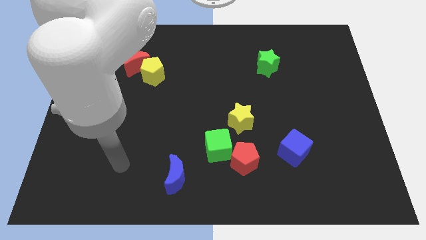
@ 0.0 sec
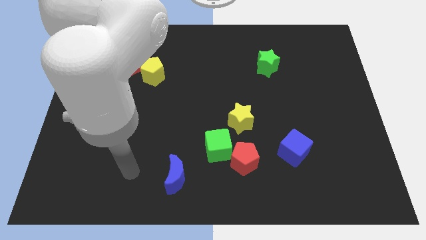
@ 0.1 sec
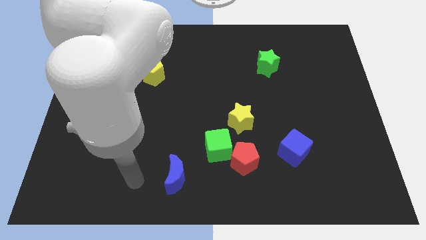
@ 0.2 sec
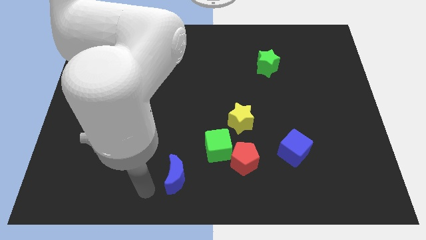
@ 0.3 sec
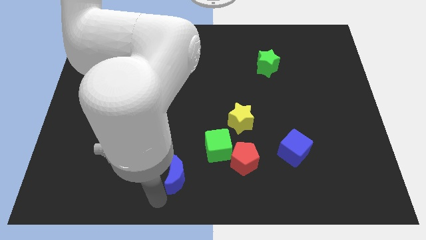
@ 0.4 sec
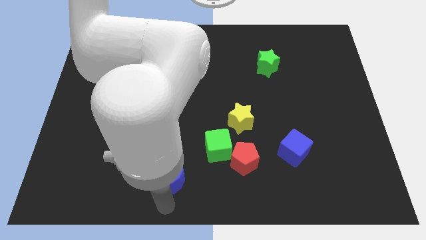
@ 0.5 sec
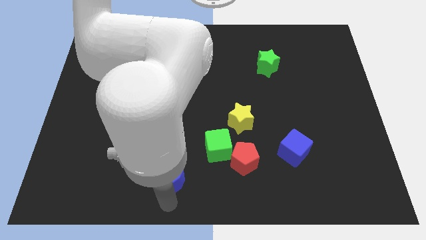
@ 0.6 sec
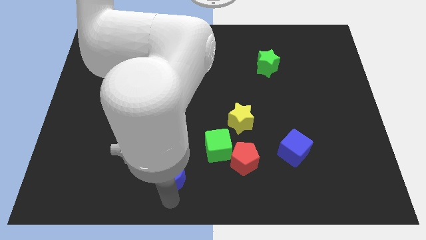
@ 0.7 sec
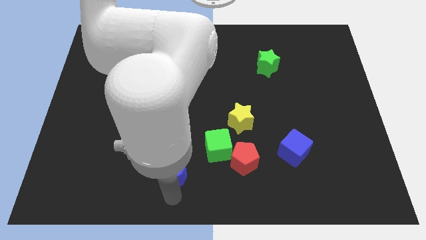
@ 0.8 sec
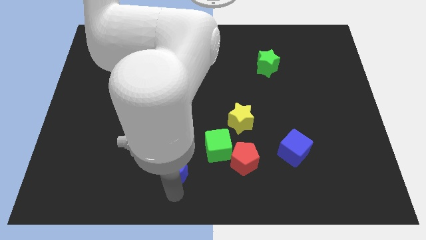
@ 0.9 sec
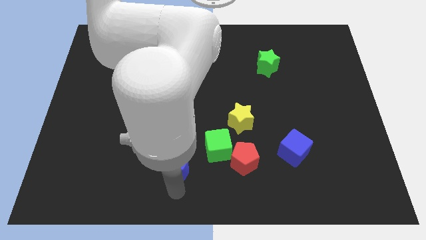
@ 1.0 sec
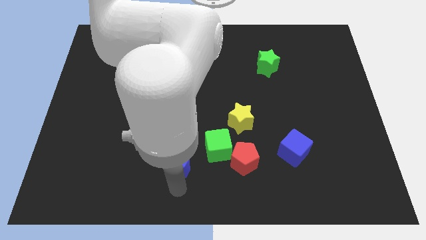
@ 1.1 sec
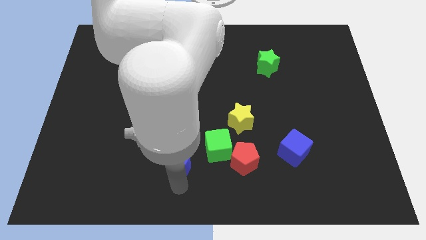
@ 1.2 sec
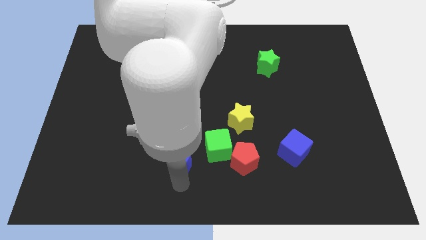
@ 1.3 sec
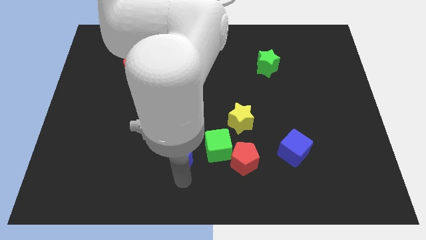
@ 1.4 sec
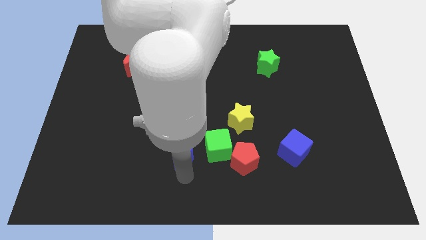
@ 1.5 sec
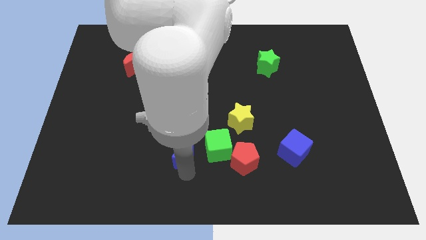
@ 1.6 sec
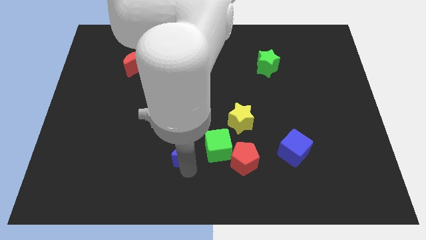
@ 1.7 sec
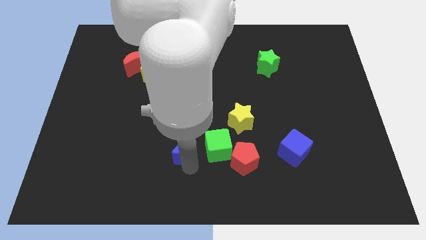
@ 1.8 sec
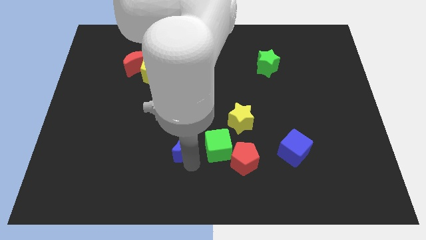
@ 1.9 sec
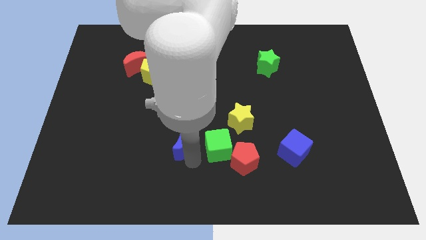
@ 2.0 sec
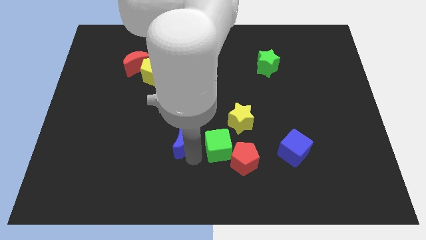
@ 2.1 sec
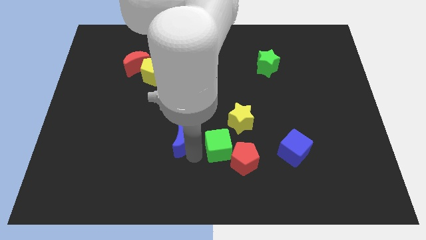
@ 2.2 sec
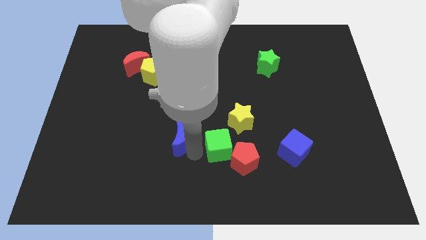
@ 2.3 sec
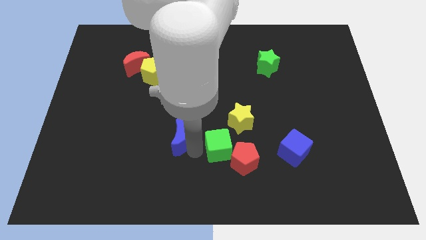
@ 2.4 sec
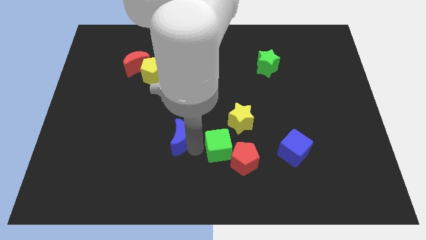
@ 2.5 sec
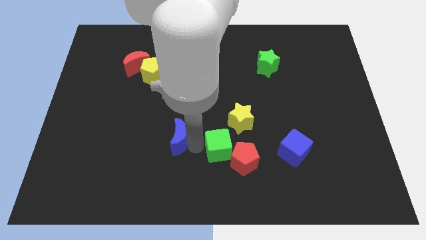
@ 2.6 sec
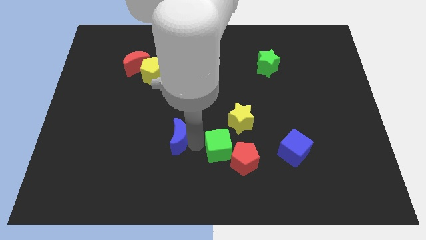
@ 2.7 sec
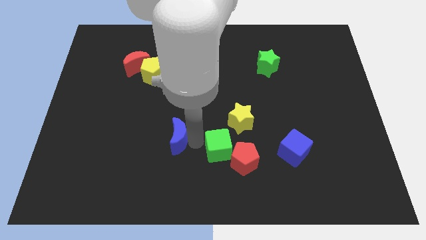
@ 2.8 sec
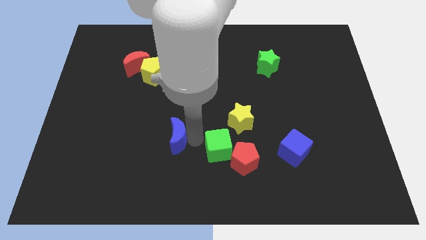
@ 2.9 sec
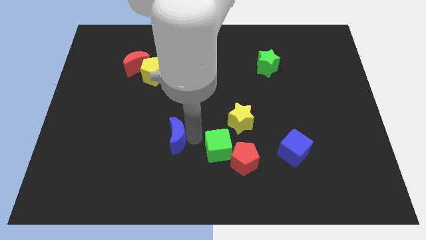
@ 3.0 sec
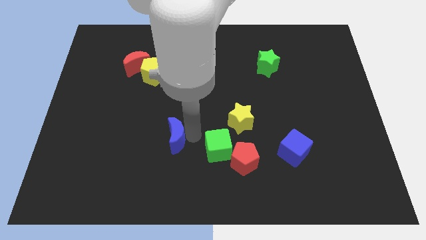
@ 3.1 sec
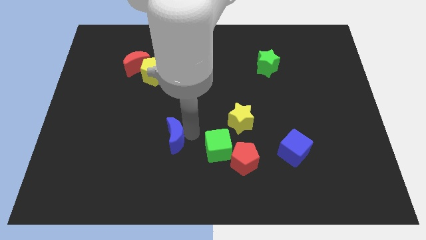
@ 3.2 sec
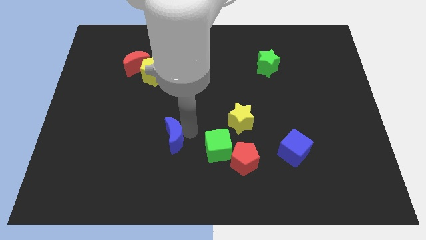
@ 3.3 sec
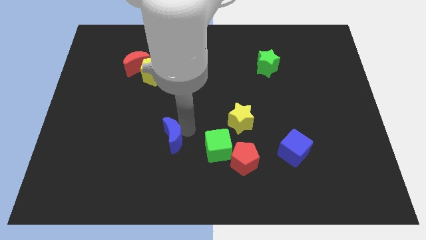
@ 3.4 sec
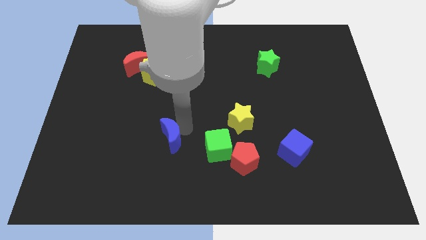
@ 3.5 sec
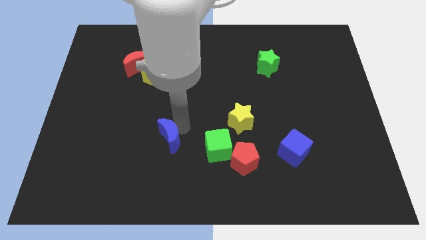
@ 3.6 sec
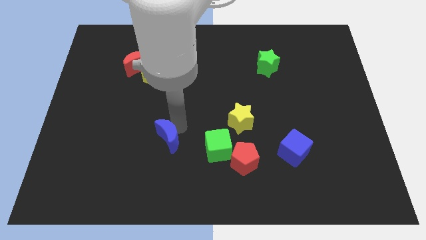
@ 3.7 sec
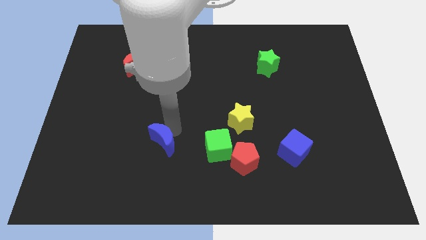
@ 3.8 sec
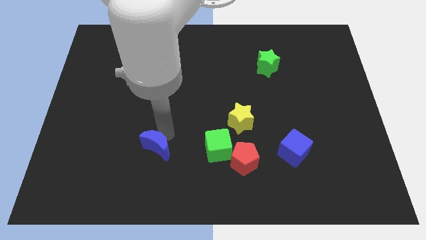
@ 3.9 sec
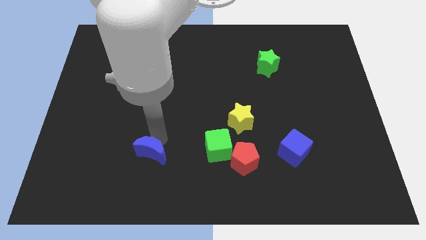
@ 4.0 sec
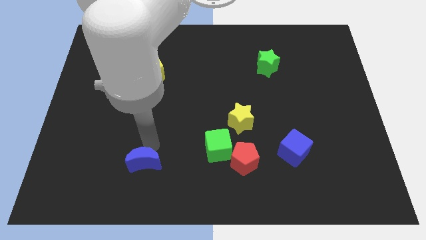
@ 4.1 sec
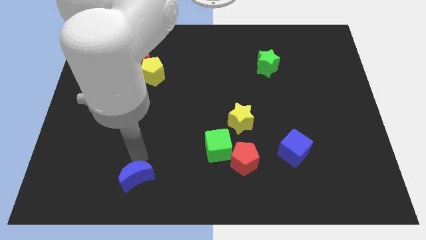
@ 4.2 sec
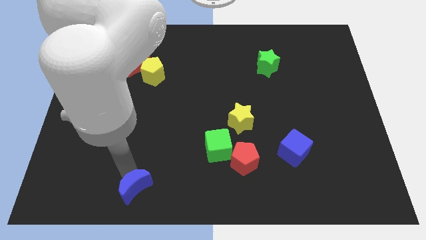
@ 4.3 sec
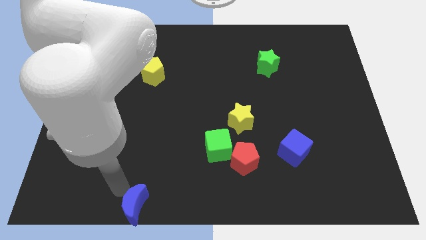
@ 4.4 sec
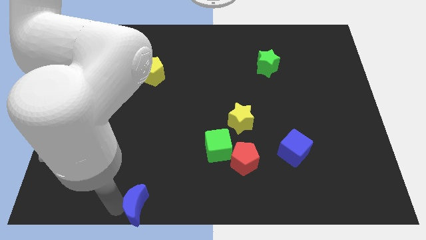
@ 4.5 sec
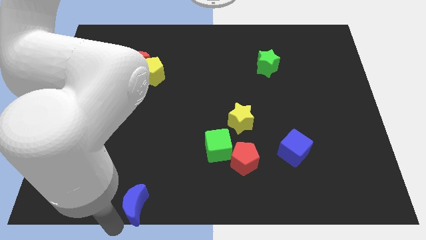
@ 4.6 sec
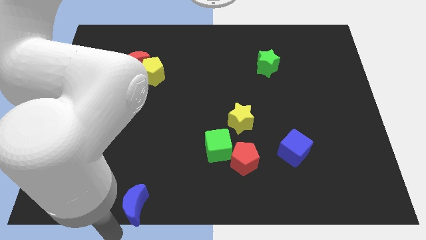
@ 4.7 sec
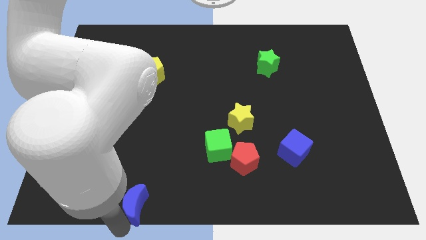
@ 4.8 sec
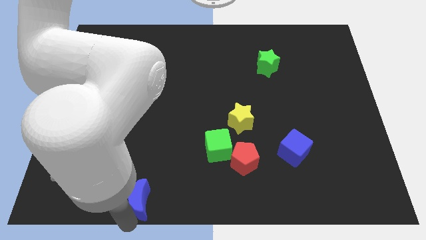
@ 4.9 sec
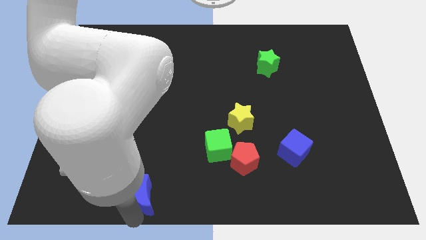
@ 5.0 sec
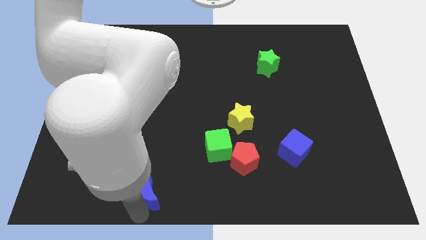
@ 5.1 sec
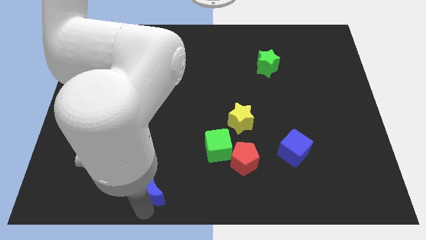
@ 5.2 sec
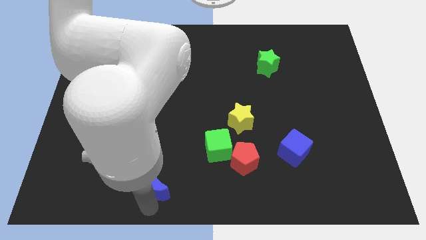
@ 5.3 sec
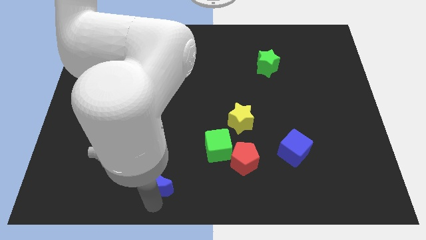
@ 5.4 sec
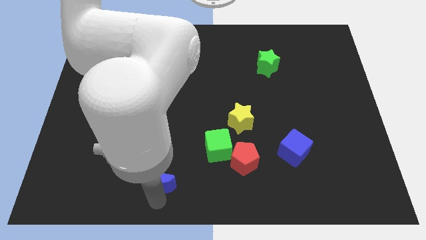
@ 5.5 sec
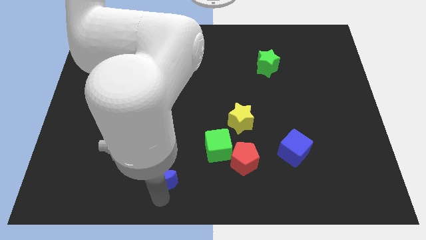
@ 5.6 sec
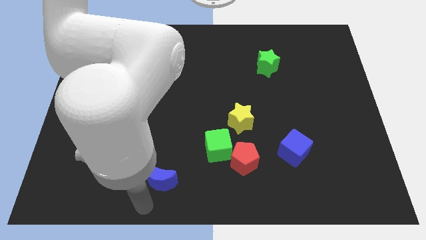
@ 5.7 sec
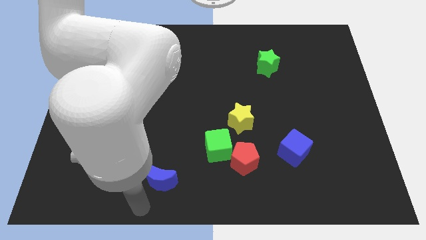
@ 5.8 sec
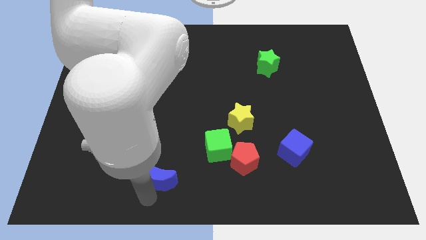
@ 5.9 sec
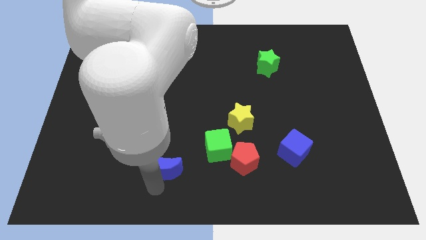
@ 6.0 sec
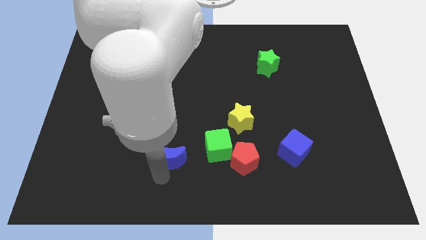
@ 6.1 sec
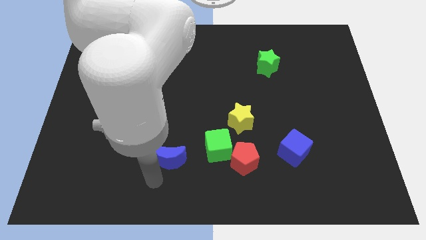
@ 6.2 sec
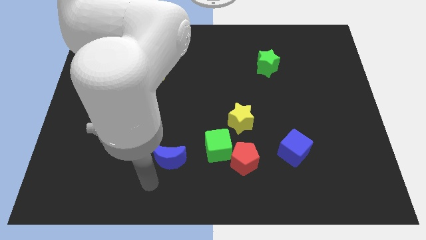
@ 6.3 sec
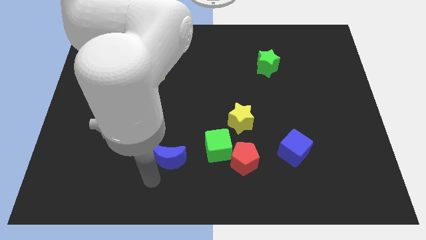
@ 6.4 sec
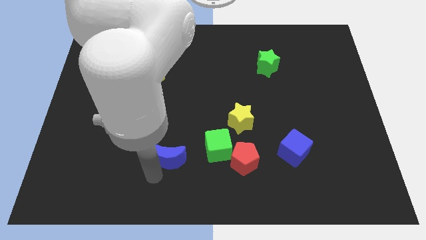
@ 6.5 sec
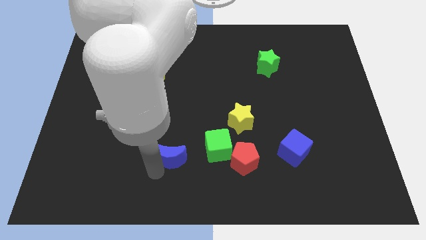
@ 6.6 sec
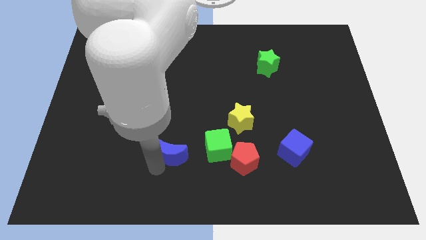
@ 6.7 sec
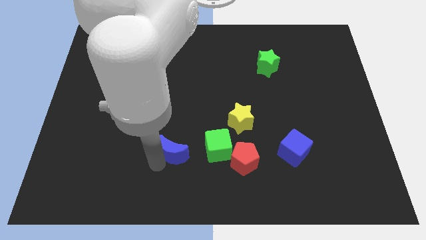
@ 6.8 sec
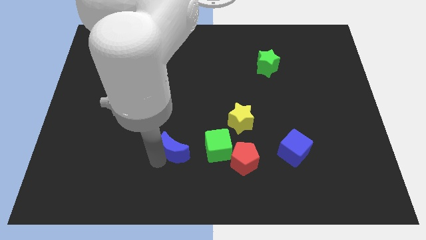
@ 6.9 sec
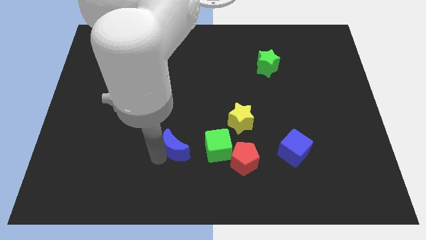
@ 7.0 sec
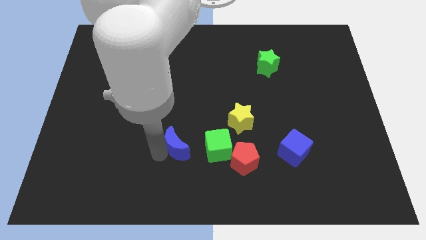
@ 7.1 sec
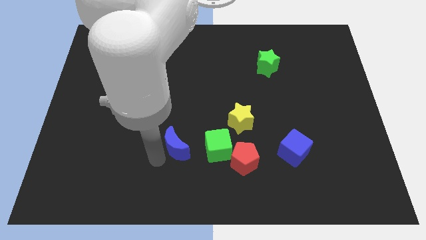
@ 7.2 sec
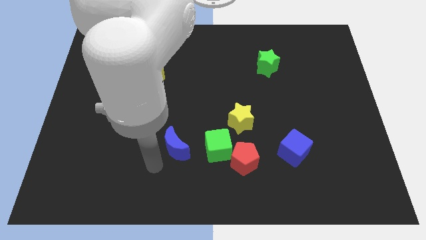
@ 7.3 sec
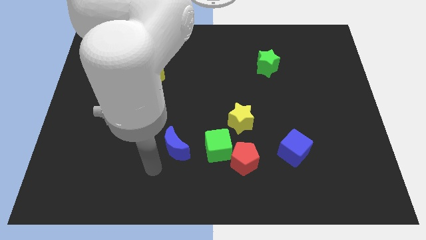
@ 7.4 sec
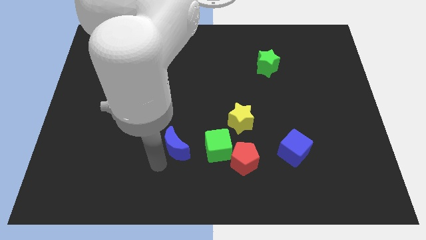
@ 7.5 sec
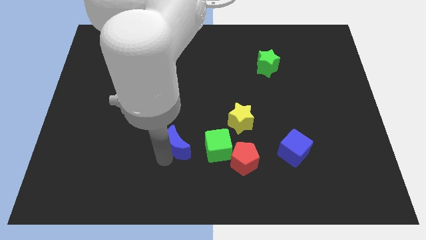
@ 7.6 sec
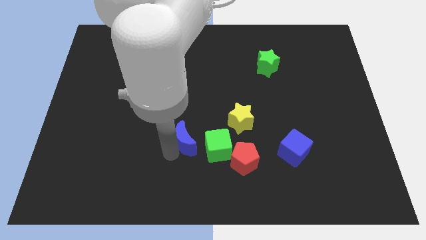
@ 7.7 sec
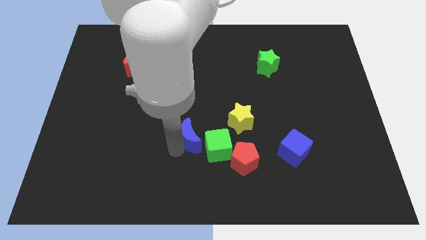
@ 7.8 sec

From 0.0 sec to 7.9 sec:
push the blue moon to the center of the board

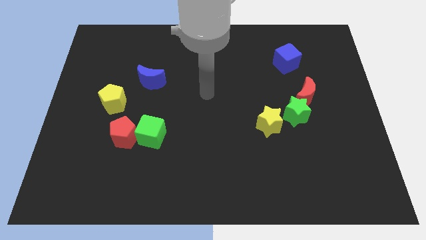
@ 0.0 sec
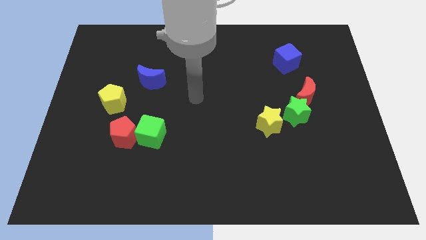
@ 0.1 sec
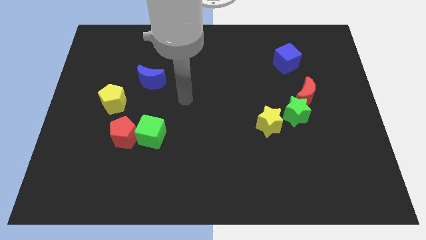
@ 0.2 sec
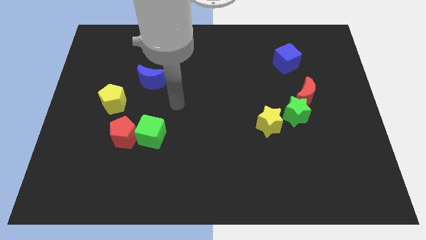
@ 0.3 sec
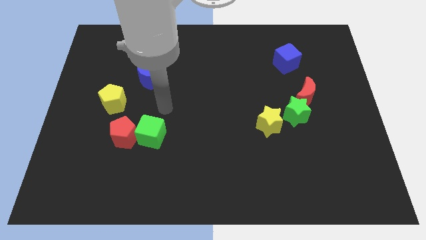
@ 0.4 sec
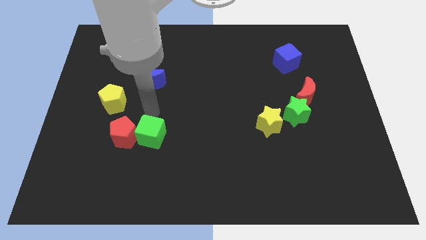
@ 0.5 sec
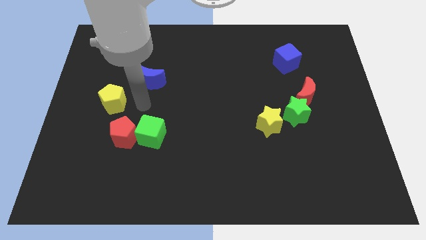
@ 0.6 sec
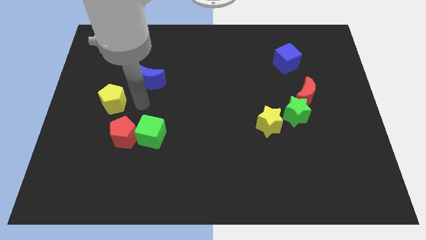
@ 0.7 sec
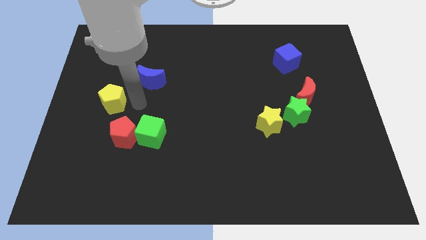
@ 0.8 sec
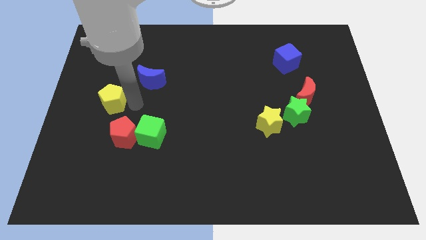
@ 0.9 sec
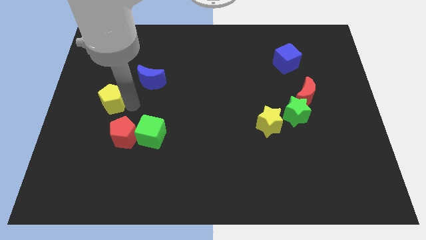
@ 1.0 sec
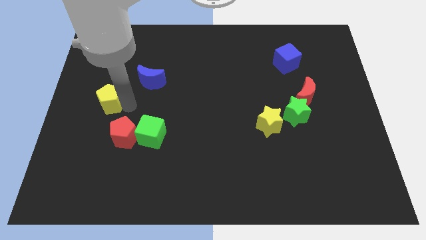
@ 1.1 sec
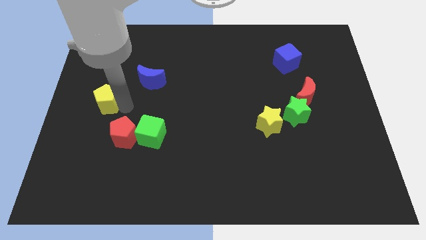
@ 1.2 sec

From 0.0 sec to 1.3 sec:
slide the yellow pentagon to the left side of the board
